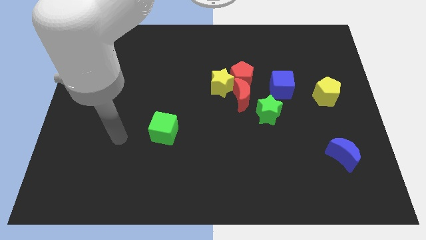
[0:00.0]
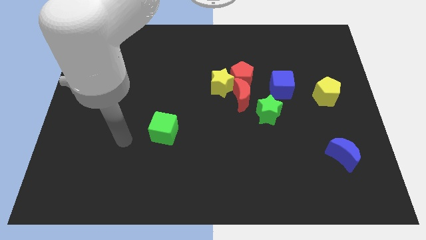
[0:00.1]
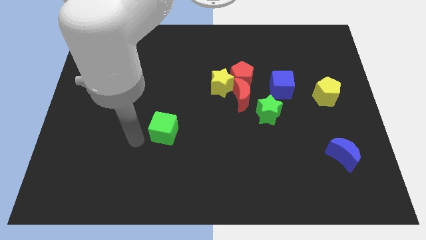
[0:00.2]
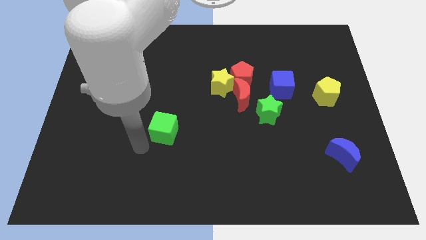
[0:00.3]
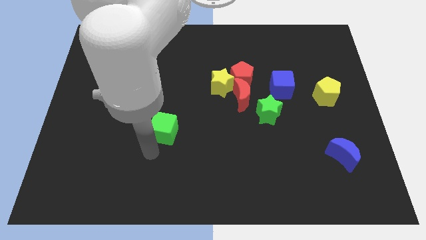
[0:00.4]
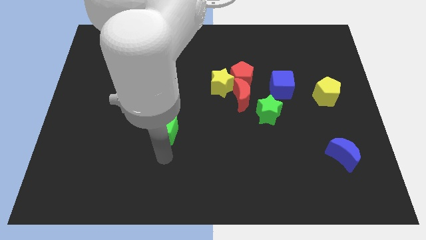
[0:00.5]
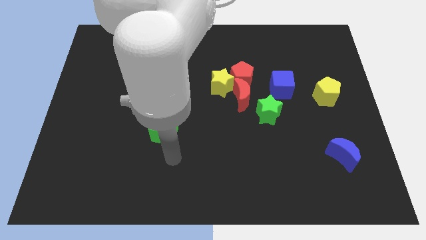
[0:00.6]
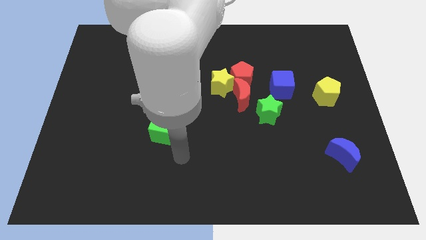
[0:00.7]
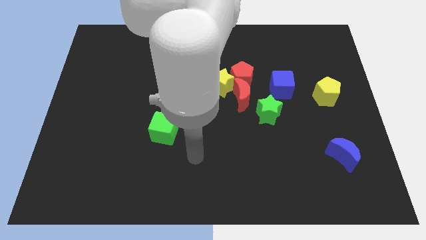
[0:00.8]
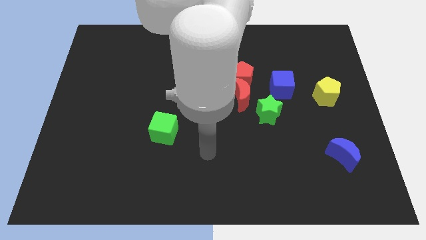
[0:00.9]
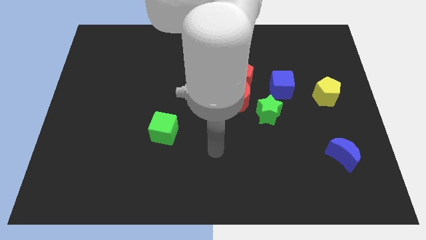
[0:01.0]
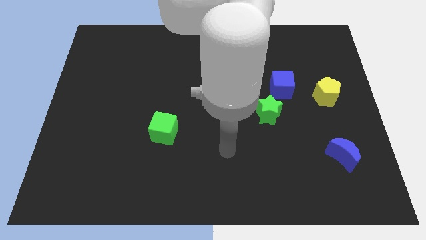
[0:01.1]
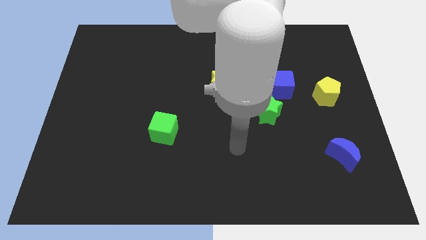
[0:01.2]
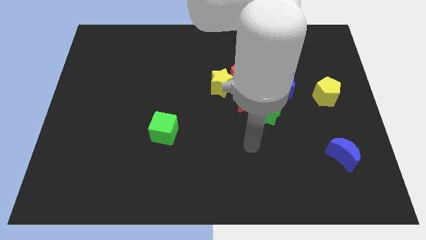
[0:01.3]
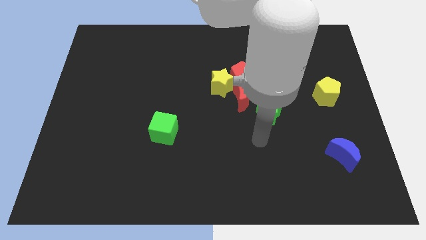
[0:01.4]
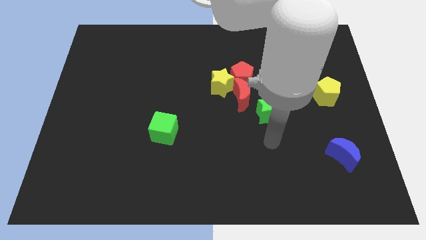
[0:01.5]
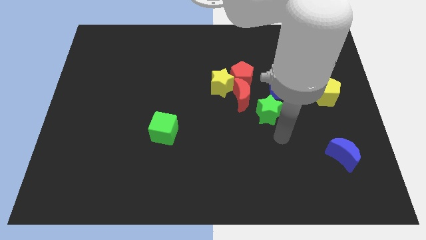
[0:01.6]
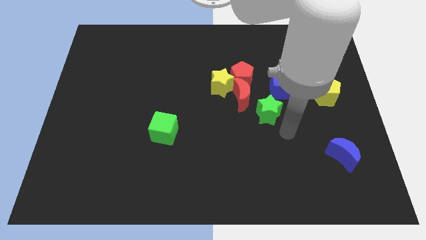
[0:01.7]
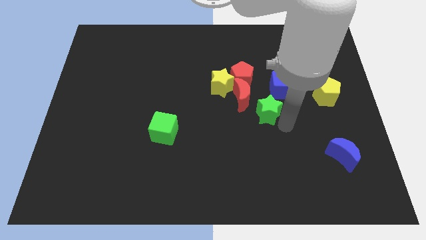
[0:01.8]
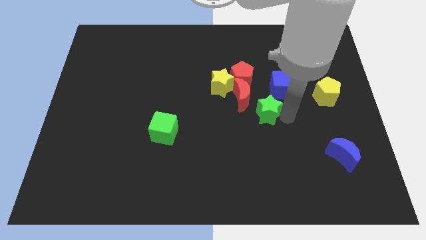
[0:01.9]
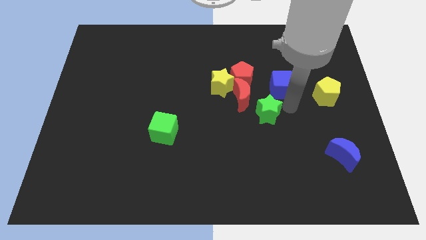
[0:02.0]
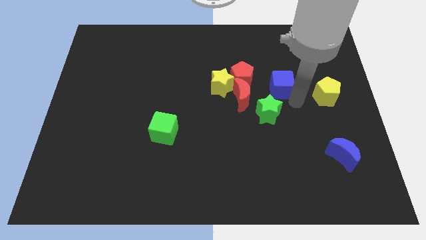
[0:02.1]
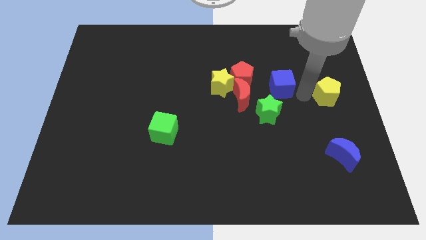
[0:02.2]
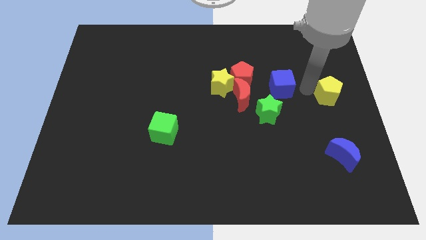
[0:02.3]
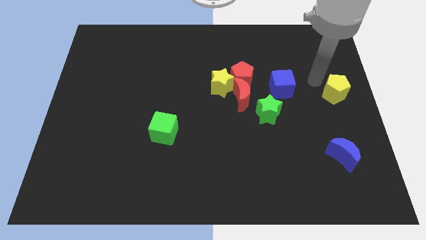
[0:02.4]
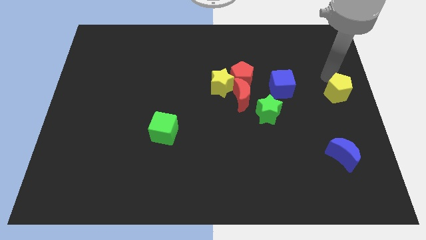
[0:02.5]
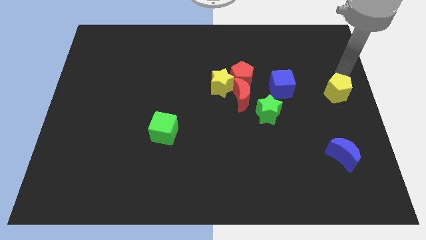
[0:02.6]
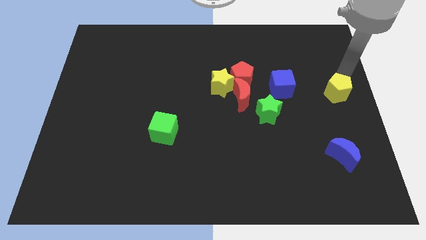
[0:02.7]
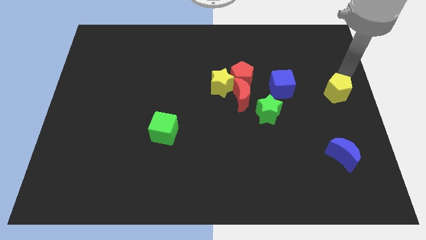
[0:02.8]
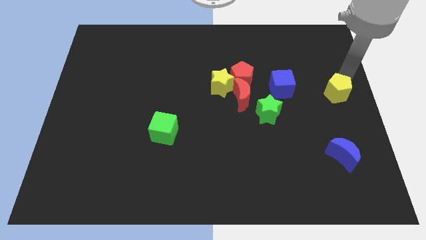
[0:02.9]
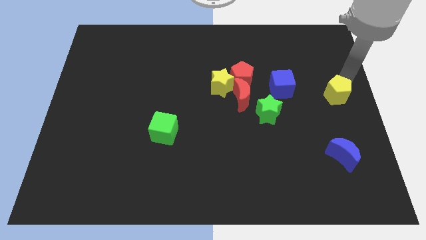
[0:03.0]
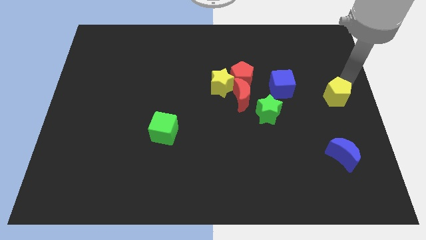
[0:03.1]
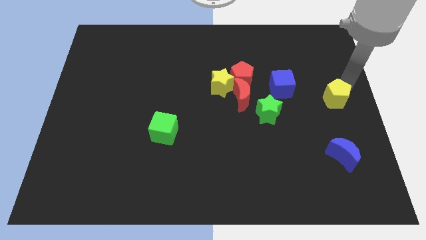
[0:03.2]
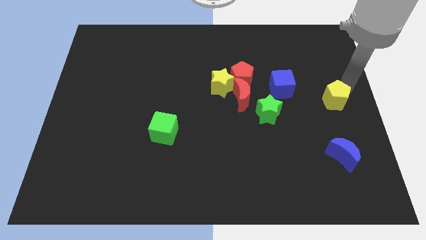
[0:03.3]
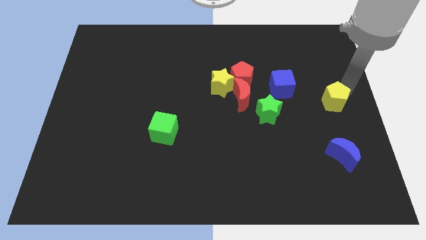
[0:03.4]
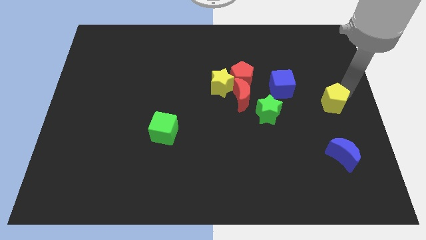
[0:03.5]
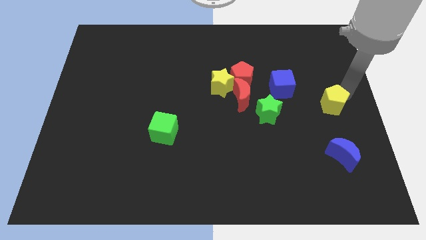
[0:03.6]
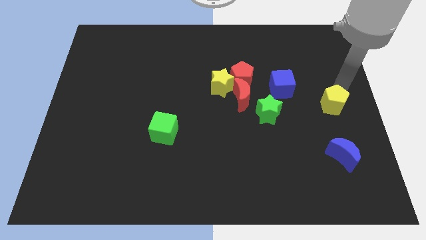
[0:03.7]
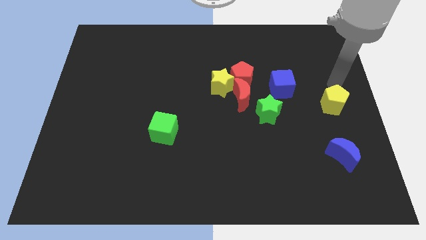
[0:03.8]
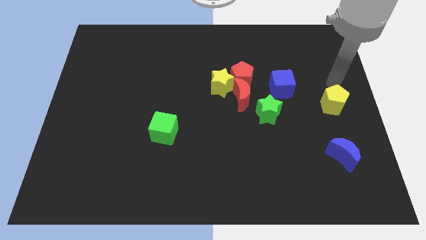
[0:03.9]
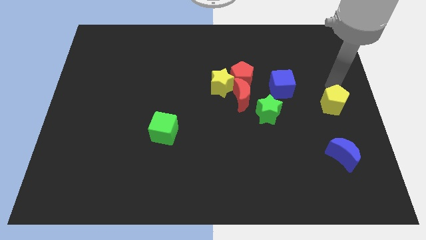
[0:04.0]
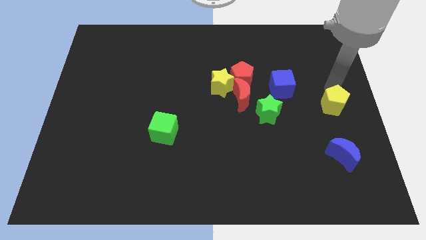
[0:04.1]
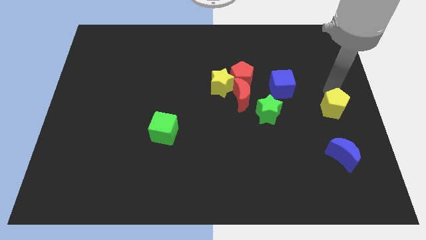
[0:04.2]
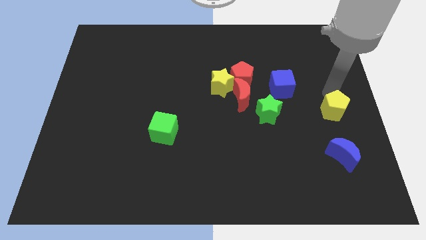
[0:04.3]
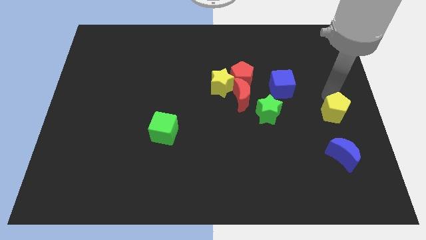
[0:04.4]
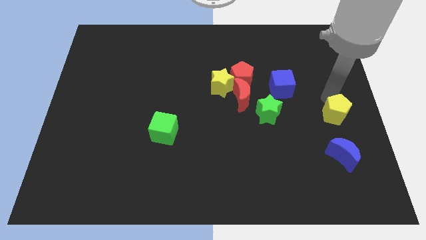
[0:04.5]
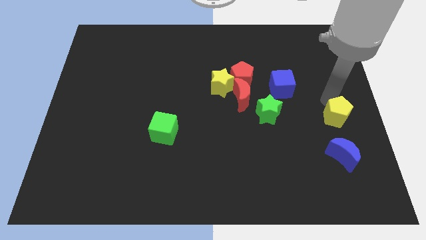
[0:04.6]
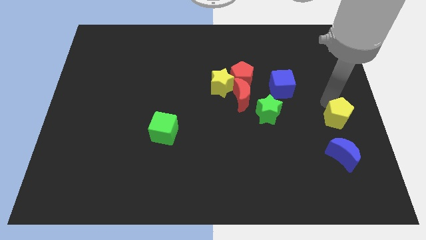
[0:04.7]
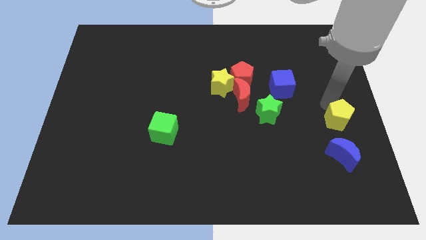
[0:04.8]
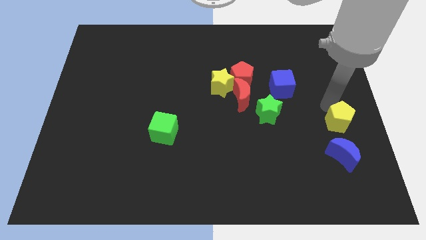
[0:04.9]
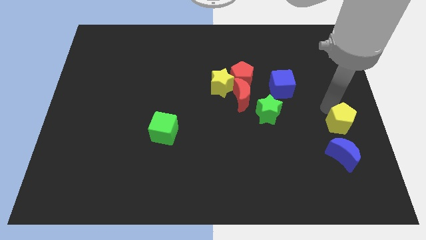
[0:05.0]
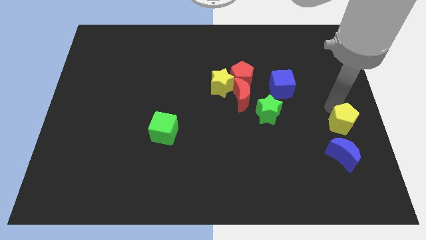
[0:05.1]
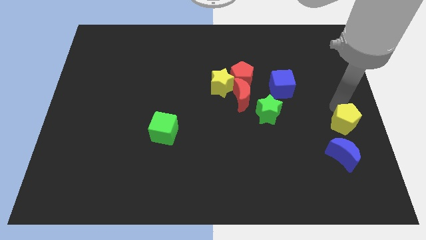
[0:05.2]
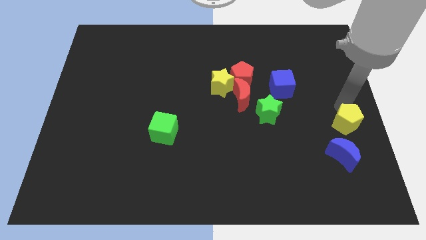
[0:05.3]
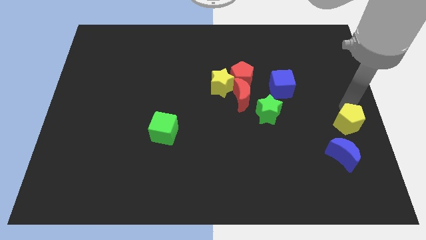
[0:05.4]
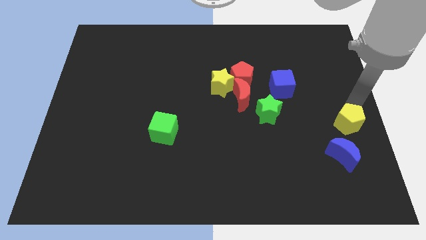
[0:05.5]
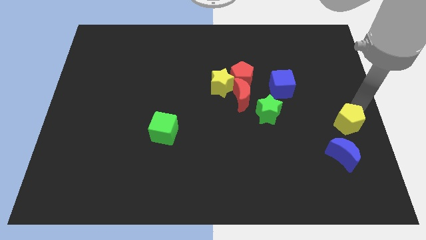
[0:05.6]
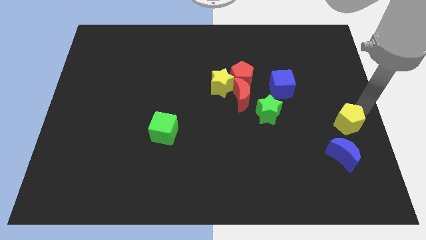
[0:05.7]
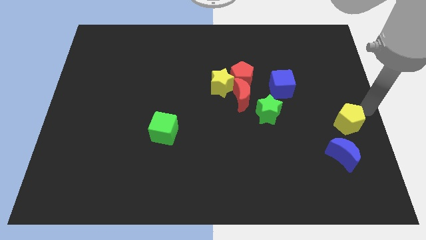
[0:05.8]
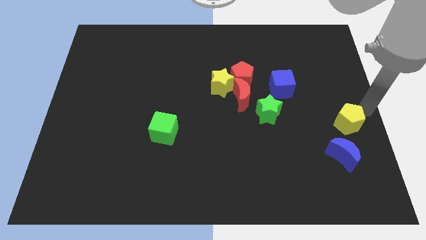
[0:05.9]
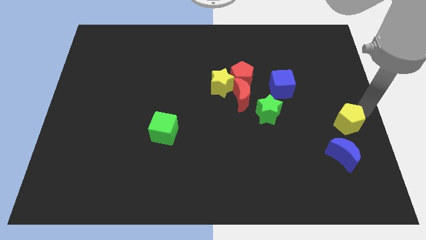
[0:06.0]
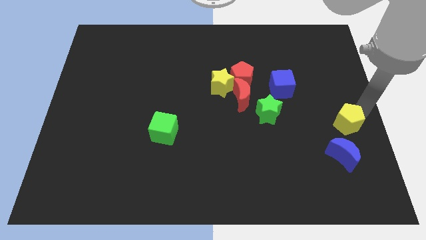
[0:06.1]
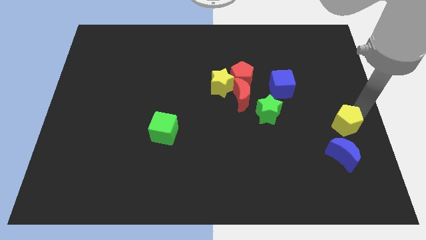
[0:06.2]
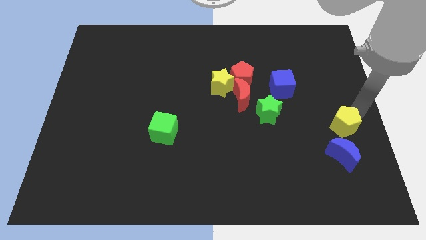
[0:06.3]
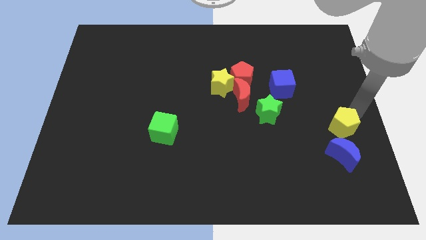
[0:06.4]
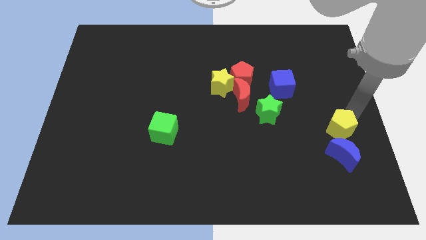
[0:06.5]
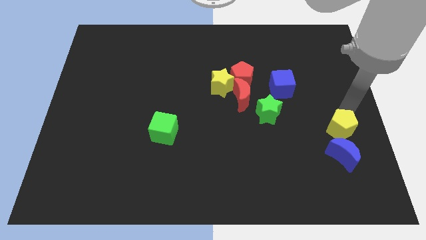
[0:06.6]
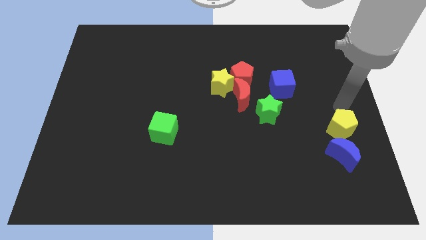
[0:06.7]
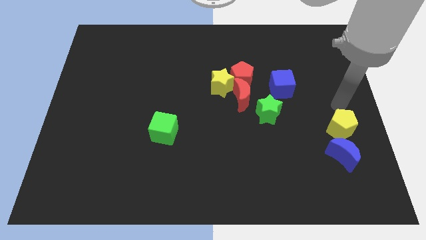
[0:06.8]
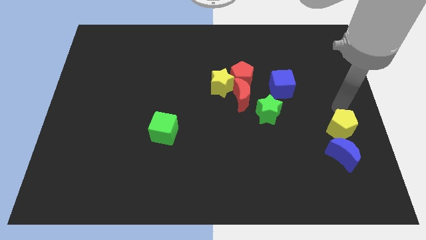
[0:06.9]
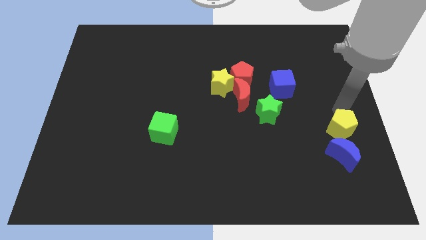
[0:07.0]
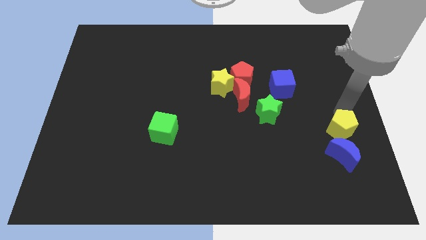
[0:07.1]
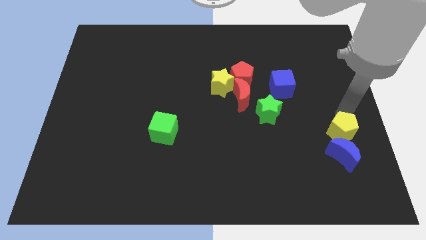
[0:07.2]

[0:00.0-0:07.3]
move the yellow pentagon to the blue moon
